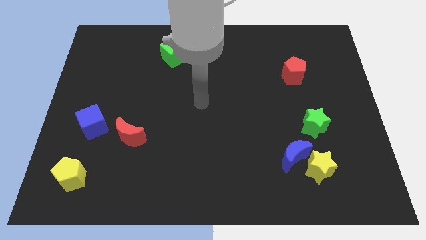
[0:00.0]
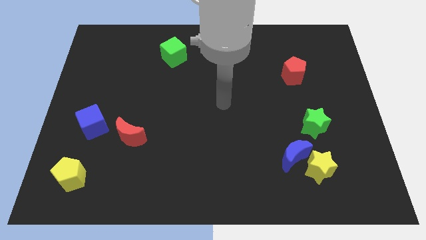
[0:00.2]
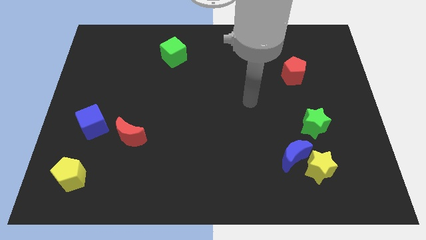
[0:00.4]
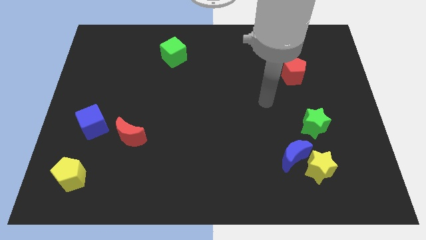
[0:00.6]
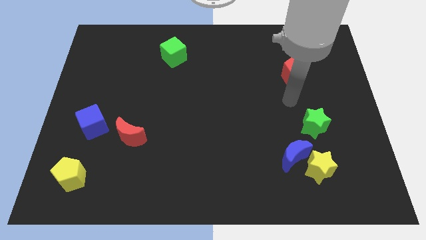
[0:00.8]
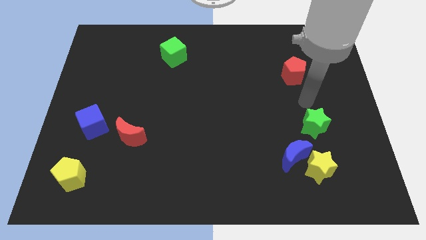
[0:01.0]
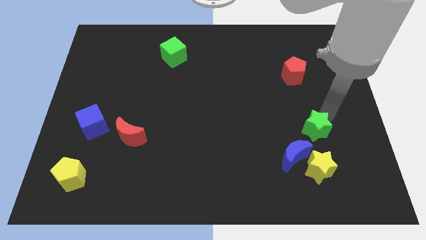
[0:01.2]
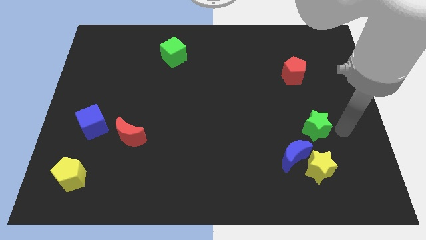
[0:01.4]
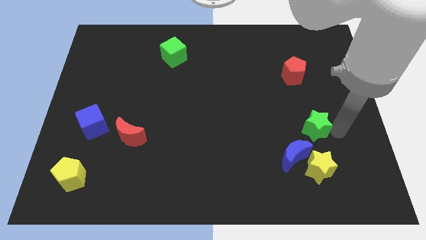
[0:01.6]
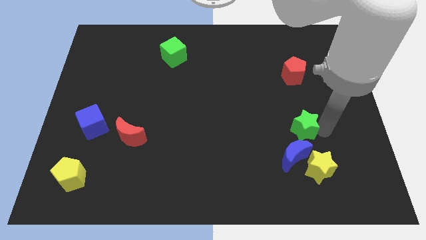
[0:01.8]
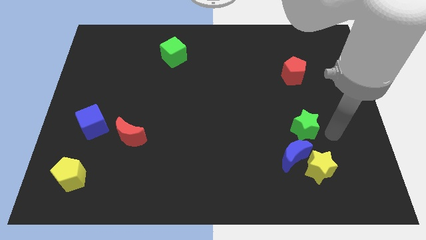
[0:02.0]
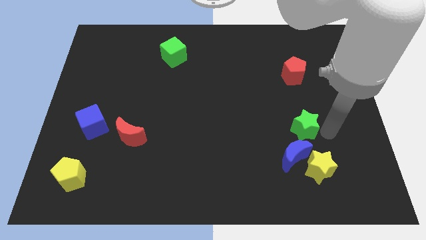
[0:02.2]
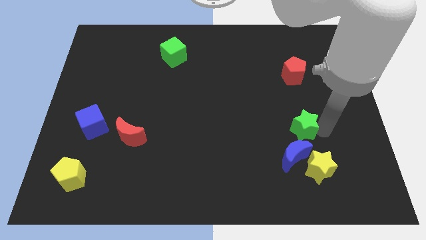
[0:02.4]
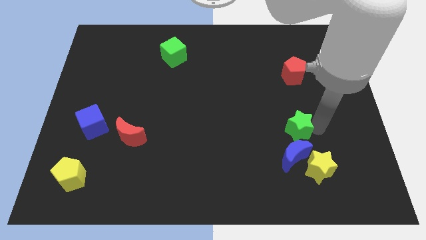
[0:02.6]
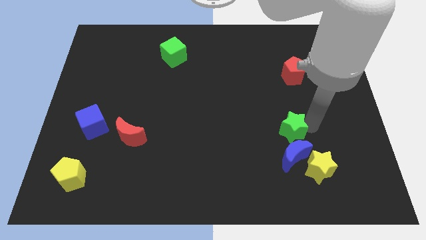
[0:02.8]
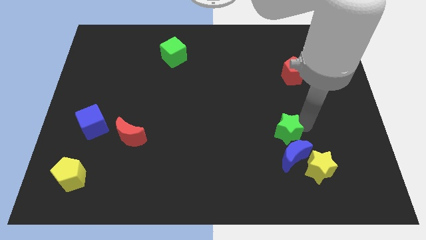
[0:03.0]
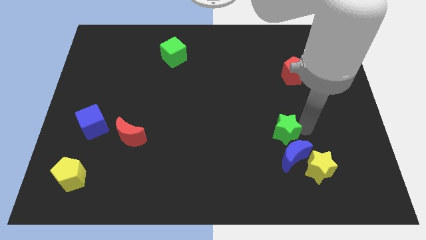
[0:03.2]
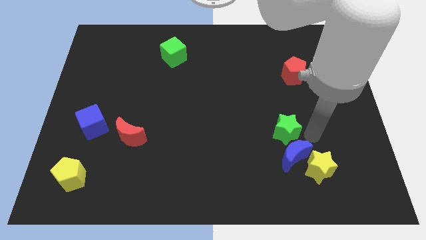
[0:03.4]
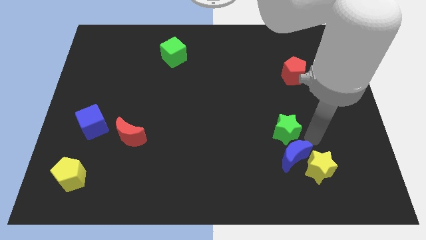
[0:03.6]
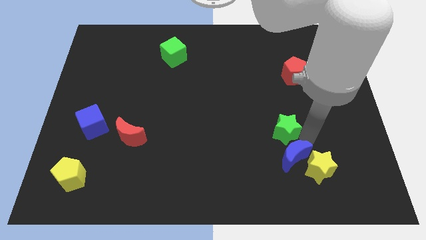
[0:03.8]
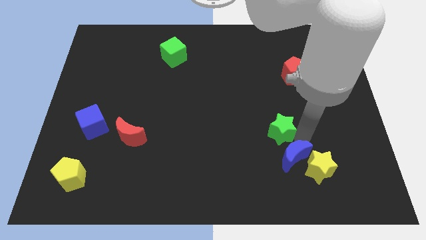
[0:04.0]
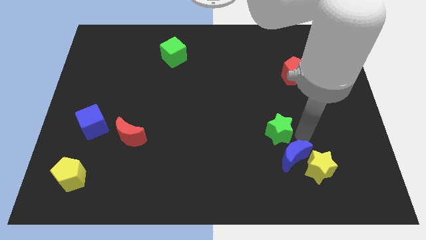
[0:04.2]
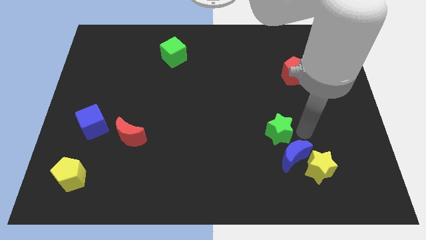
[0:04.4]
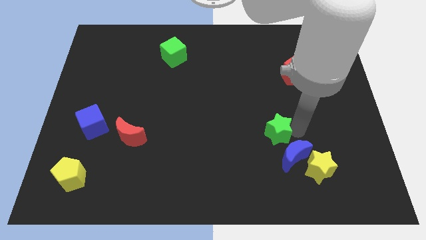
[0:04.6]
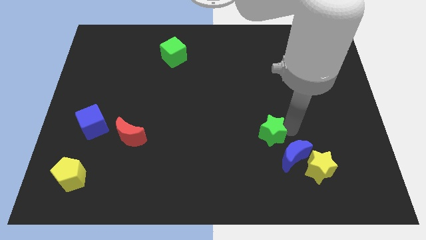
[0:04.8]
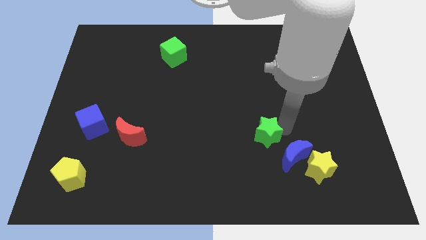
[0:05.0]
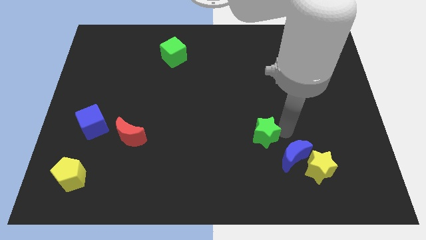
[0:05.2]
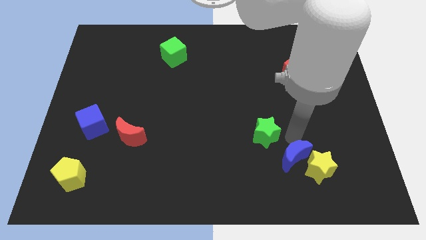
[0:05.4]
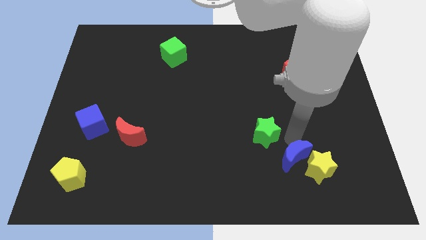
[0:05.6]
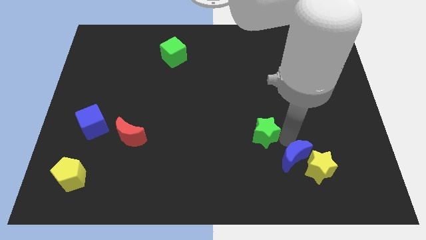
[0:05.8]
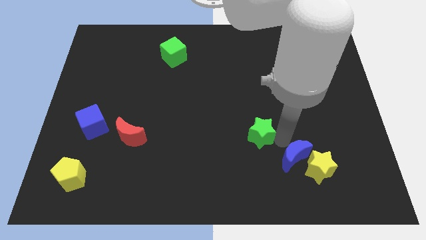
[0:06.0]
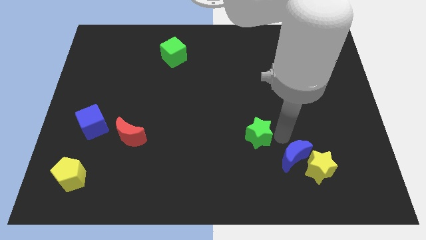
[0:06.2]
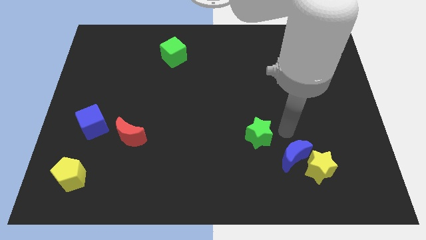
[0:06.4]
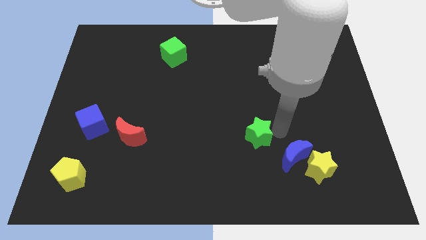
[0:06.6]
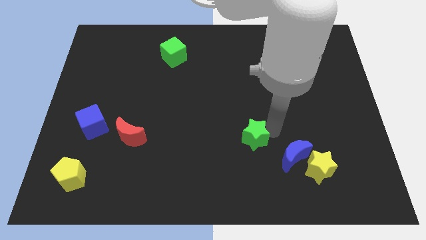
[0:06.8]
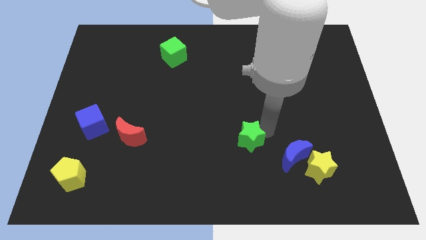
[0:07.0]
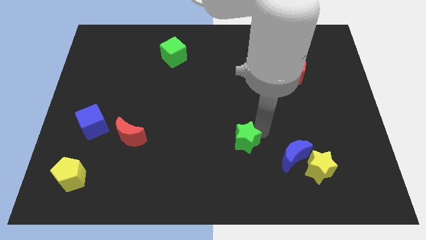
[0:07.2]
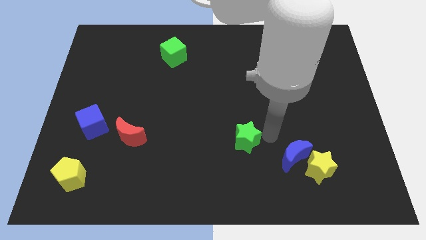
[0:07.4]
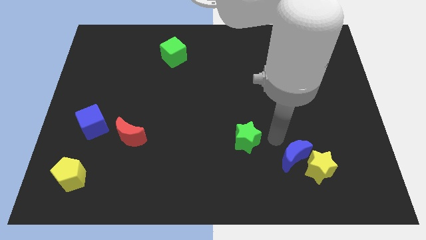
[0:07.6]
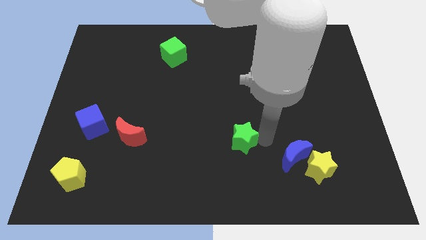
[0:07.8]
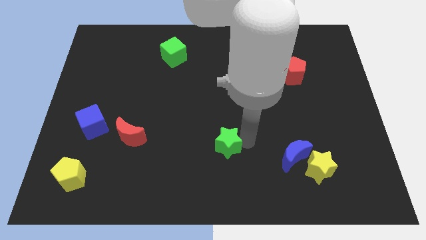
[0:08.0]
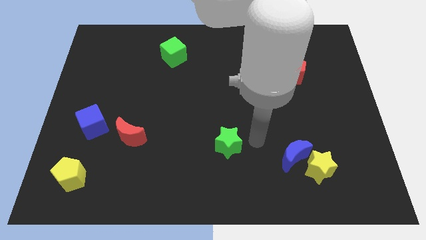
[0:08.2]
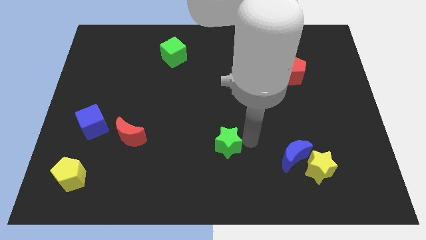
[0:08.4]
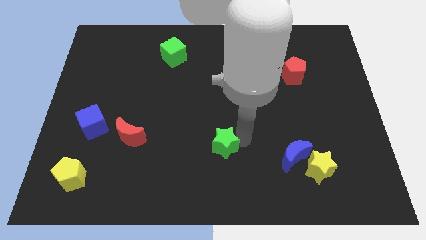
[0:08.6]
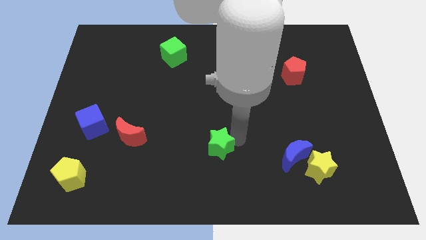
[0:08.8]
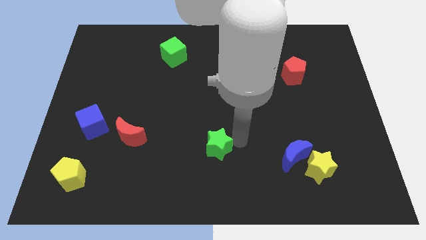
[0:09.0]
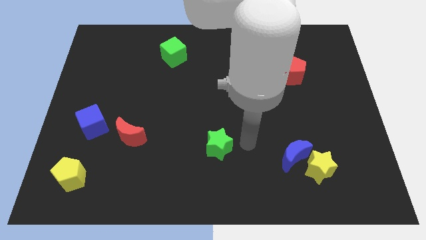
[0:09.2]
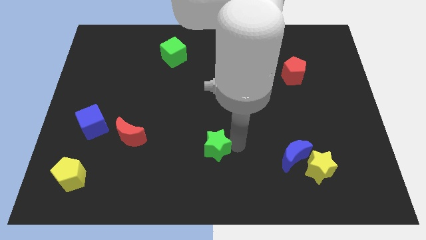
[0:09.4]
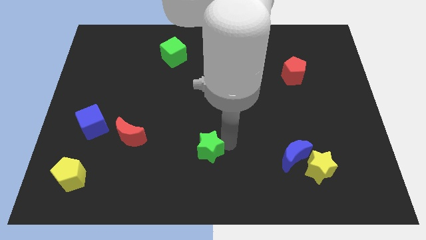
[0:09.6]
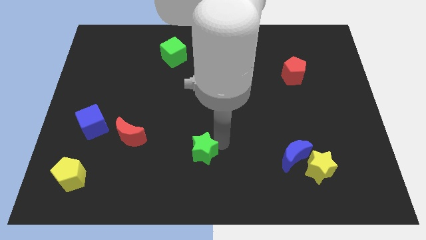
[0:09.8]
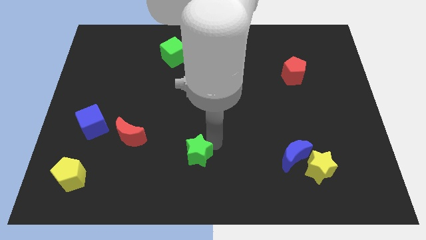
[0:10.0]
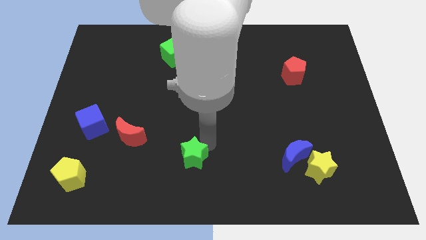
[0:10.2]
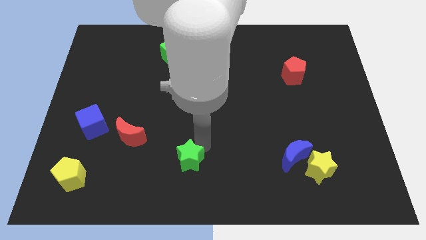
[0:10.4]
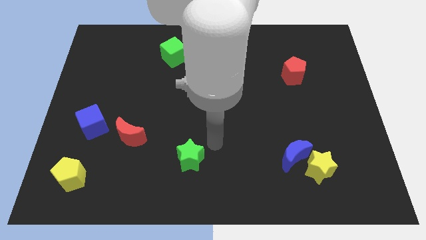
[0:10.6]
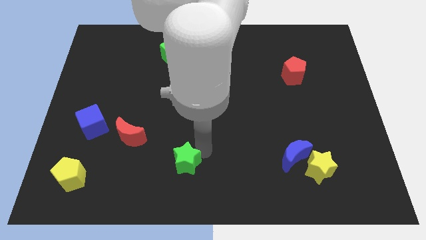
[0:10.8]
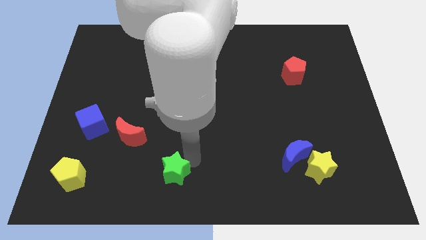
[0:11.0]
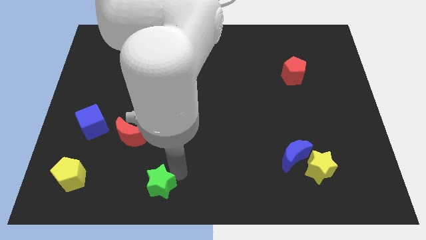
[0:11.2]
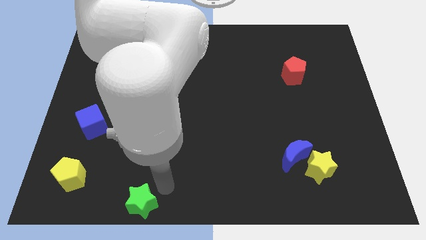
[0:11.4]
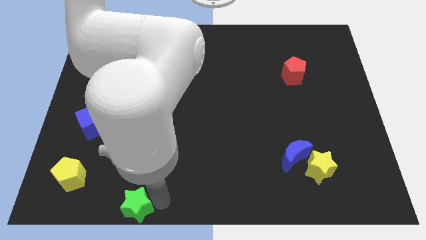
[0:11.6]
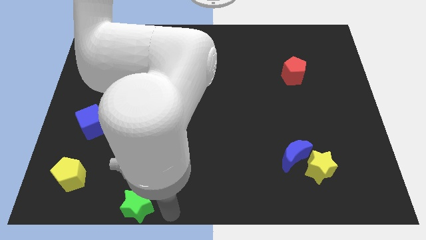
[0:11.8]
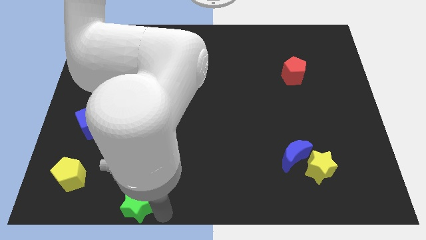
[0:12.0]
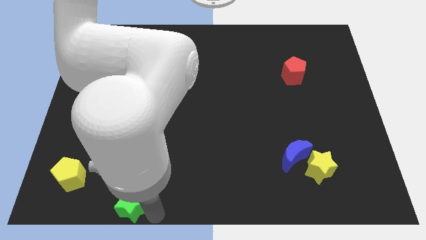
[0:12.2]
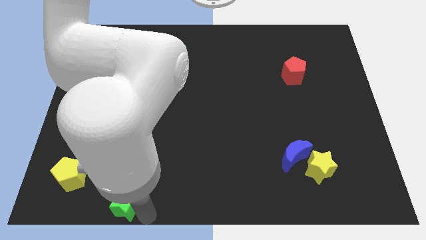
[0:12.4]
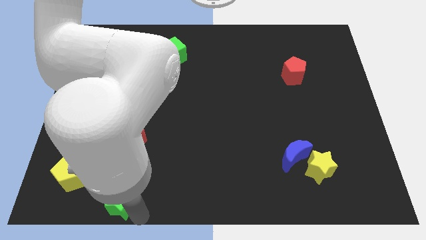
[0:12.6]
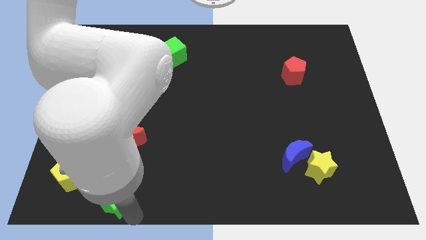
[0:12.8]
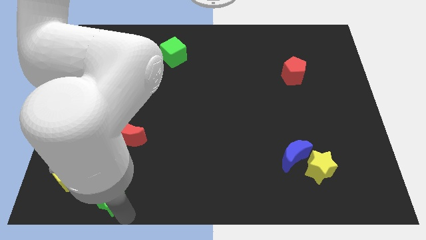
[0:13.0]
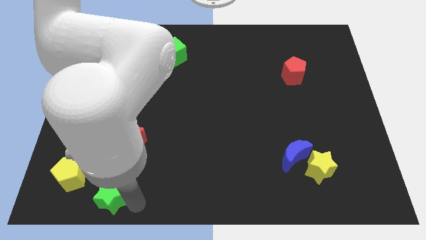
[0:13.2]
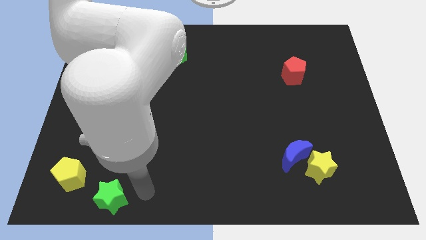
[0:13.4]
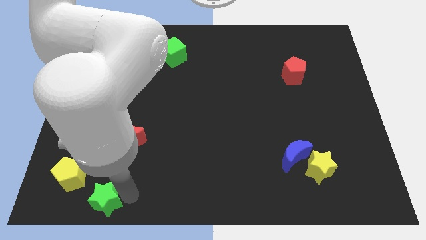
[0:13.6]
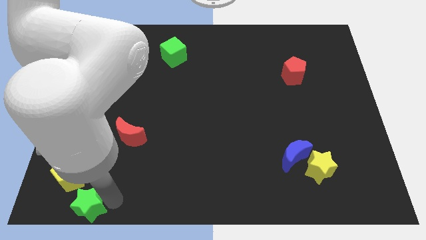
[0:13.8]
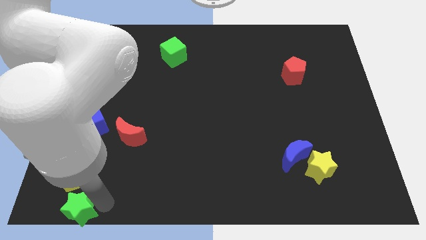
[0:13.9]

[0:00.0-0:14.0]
put the green star to the bottom left
